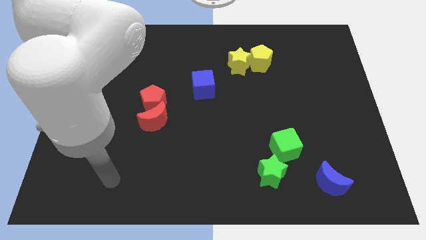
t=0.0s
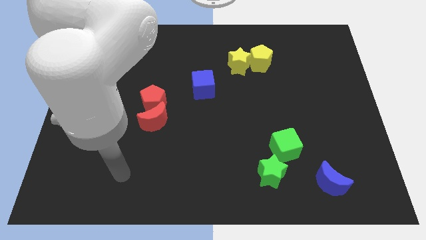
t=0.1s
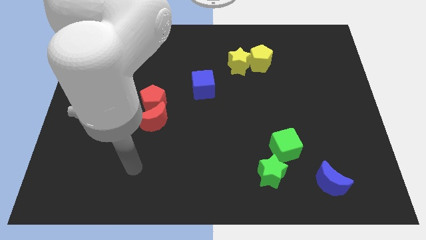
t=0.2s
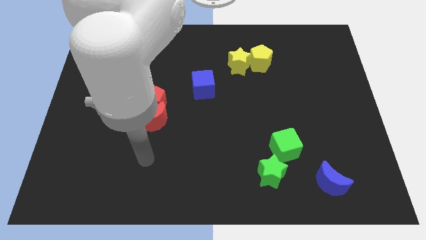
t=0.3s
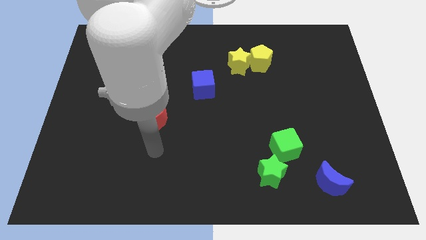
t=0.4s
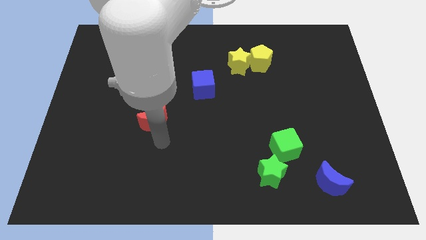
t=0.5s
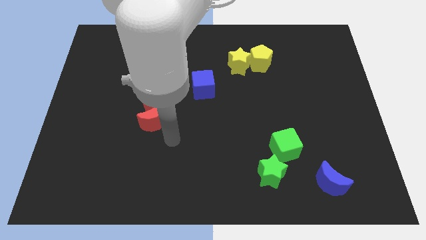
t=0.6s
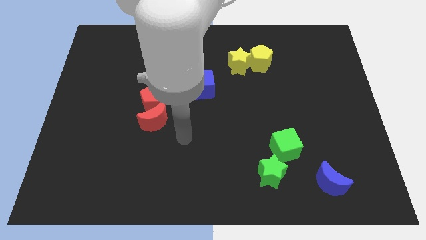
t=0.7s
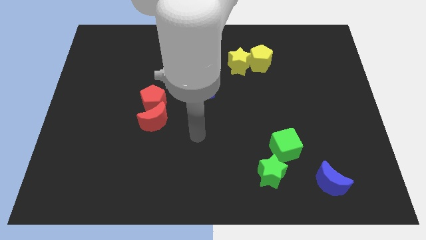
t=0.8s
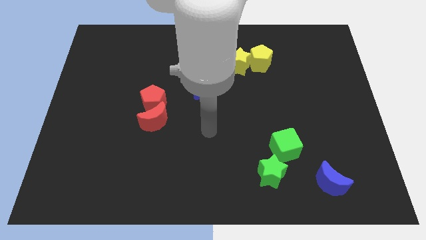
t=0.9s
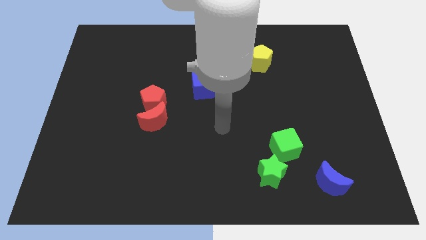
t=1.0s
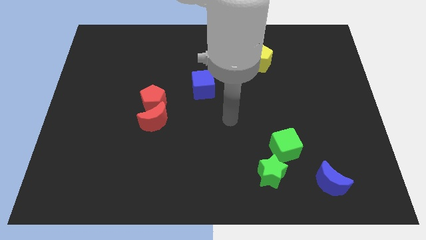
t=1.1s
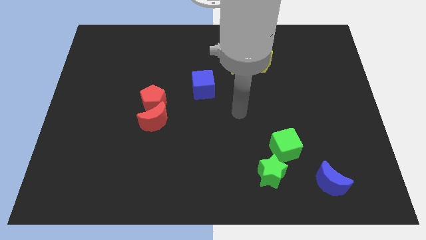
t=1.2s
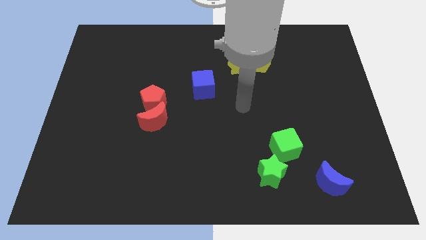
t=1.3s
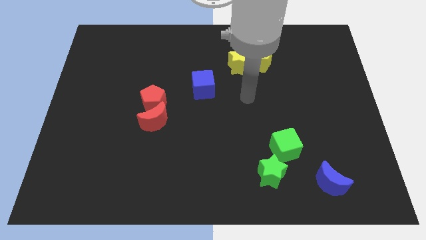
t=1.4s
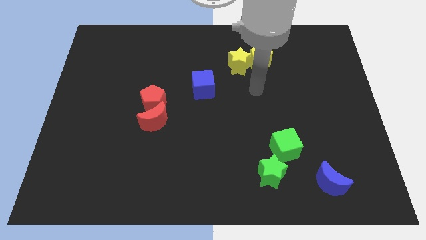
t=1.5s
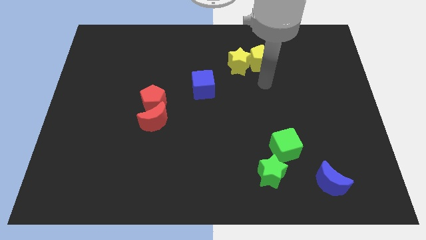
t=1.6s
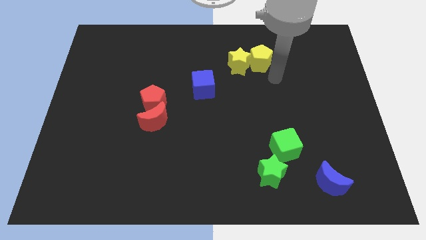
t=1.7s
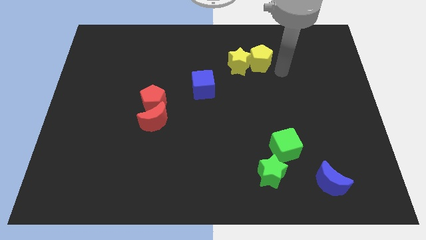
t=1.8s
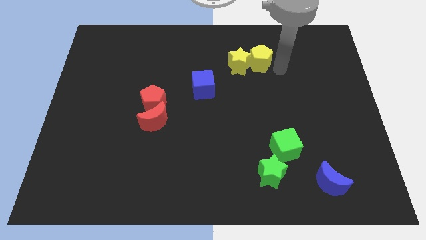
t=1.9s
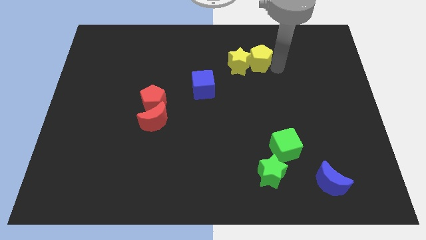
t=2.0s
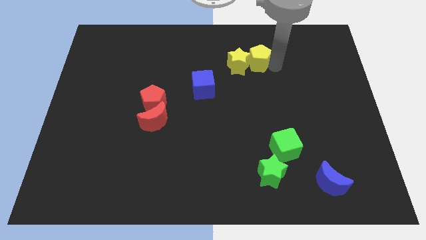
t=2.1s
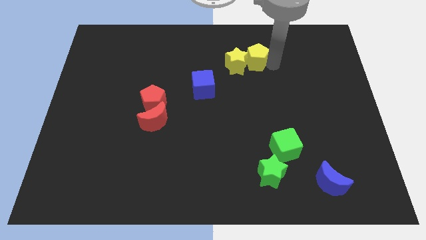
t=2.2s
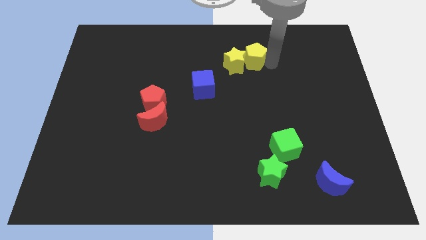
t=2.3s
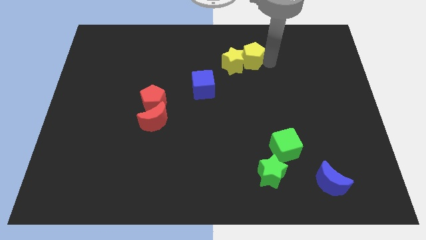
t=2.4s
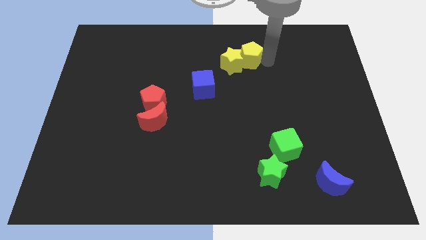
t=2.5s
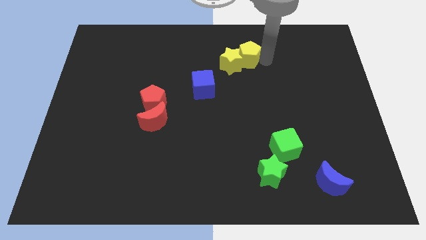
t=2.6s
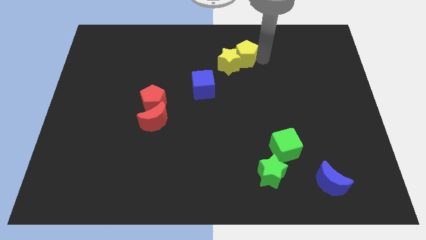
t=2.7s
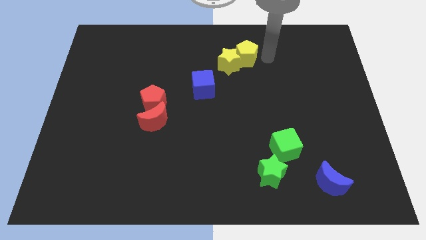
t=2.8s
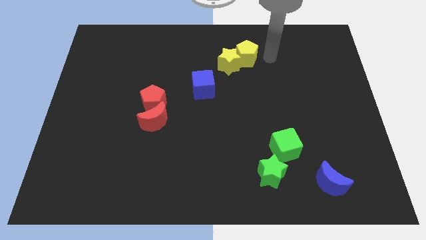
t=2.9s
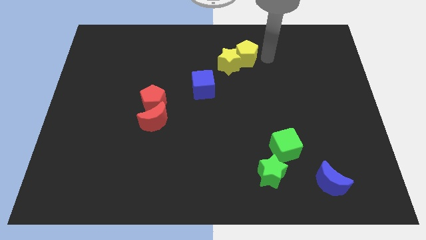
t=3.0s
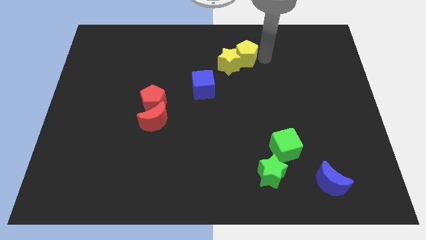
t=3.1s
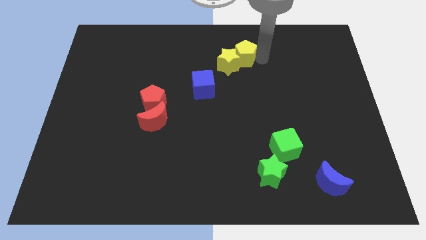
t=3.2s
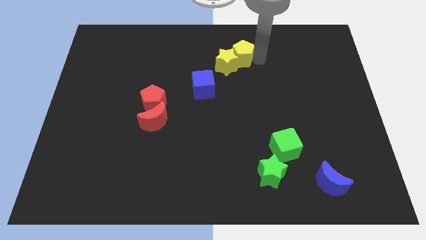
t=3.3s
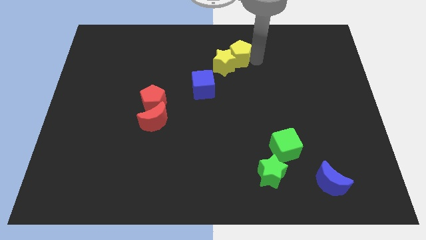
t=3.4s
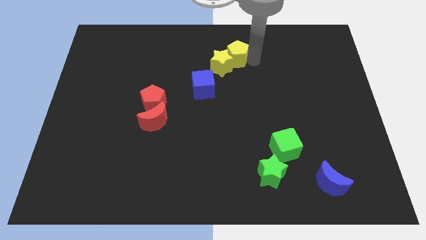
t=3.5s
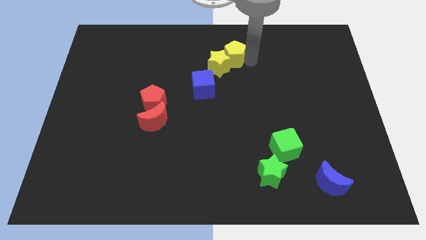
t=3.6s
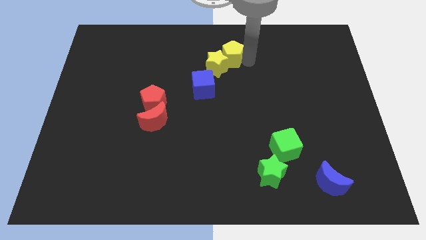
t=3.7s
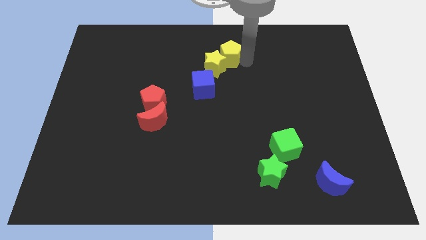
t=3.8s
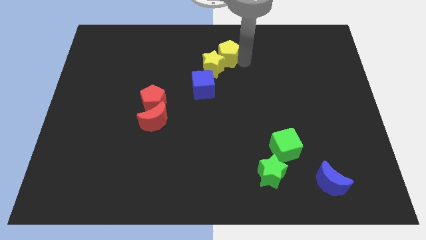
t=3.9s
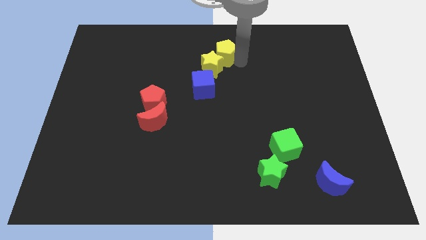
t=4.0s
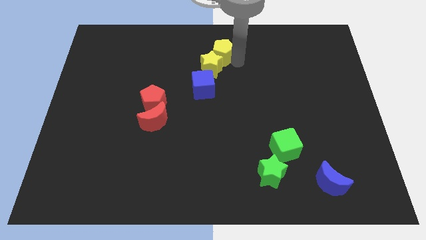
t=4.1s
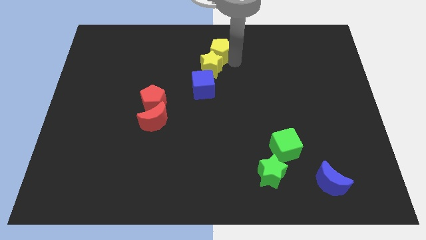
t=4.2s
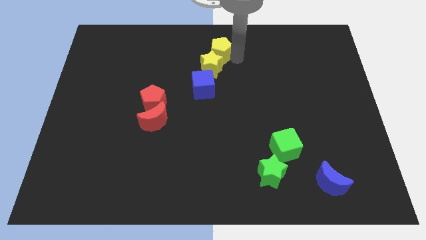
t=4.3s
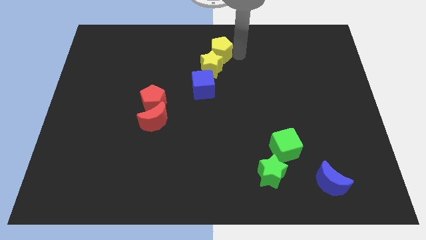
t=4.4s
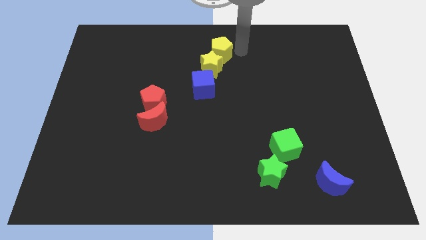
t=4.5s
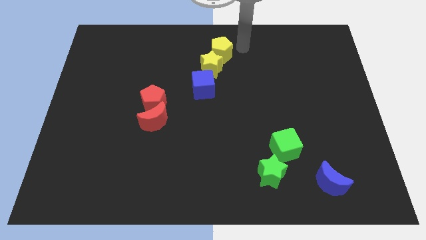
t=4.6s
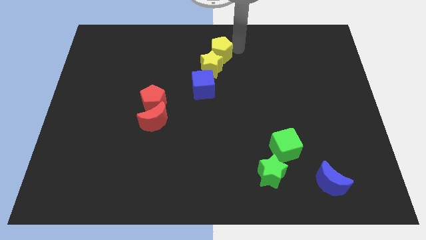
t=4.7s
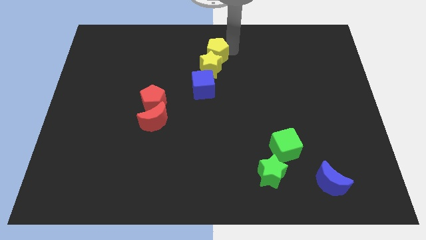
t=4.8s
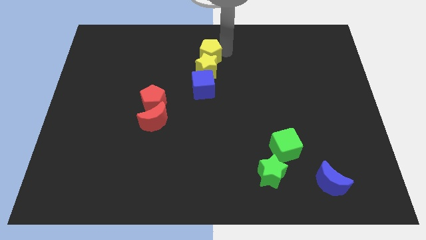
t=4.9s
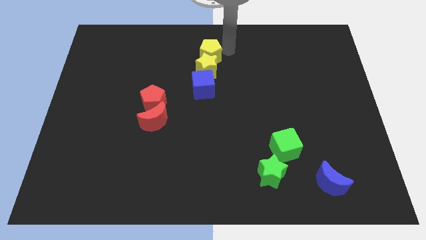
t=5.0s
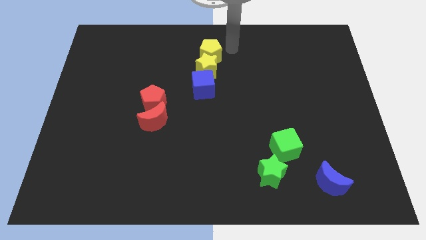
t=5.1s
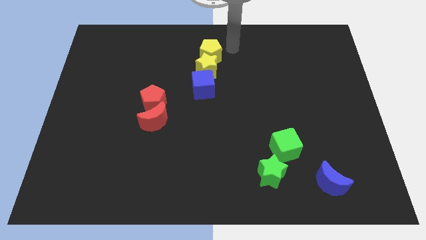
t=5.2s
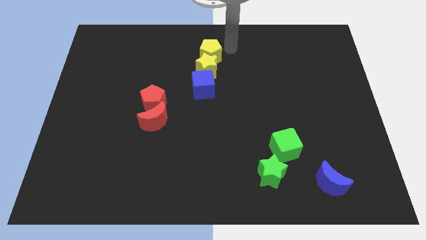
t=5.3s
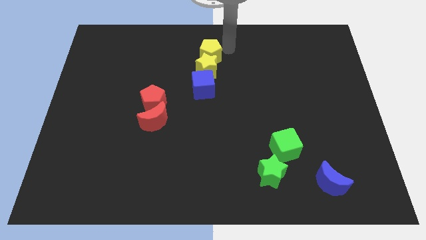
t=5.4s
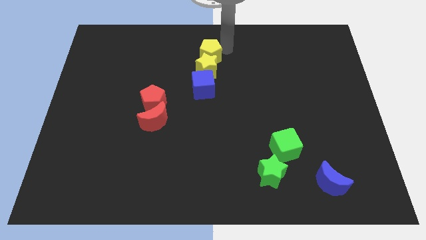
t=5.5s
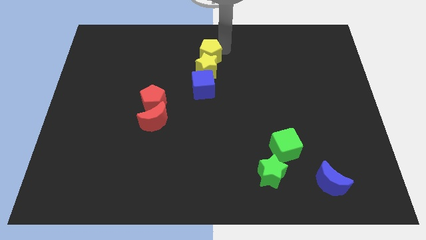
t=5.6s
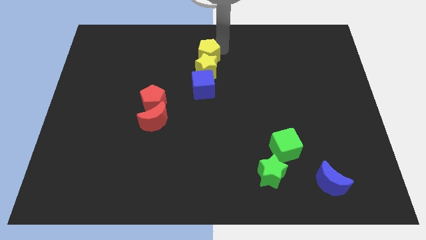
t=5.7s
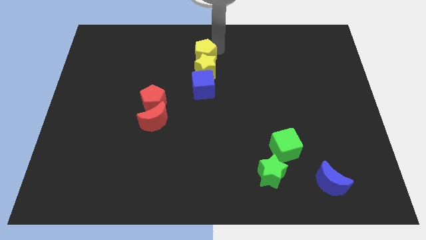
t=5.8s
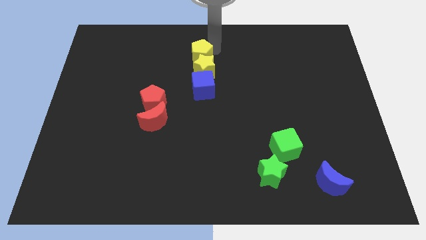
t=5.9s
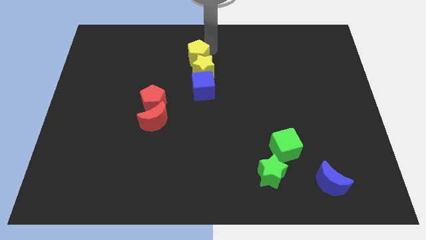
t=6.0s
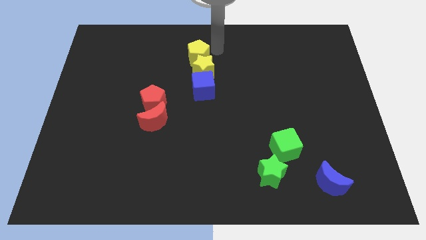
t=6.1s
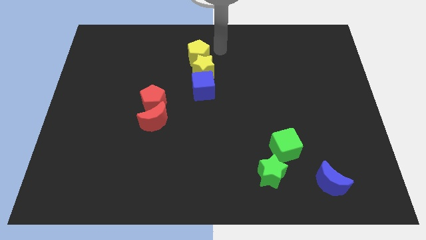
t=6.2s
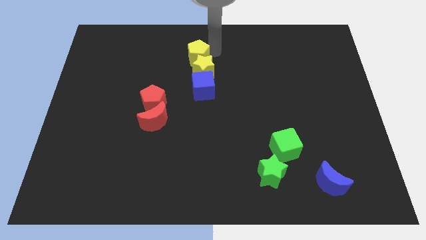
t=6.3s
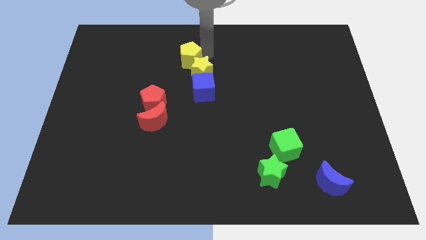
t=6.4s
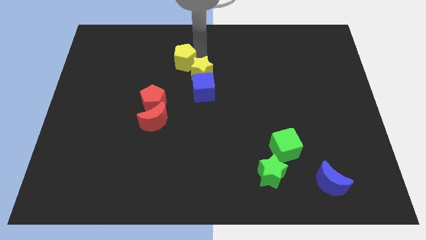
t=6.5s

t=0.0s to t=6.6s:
push the yellow pentagon to the left

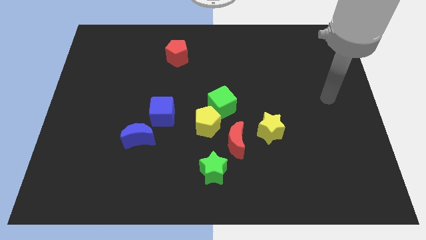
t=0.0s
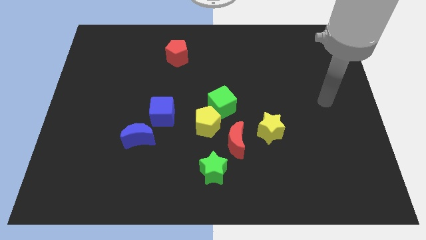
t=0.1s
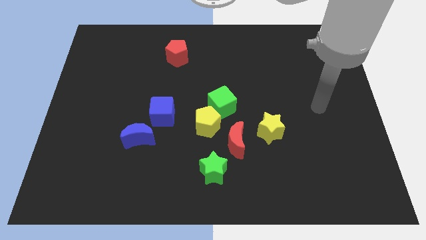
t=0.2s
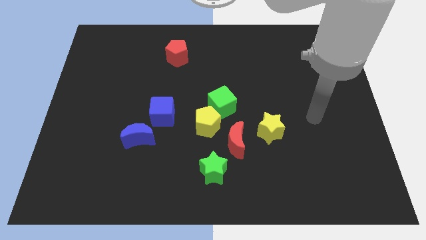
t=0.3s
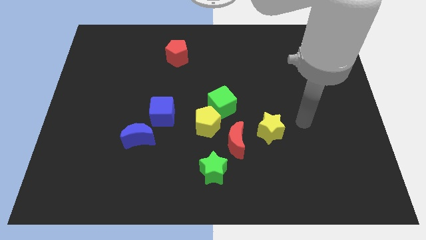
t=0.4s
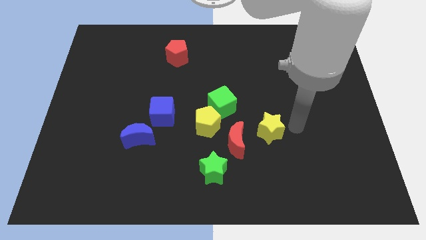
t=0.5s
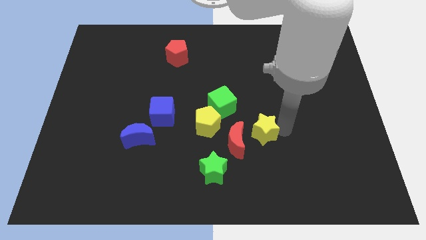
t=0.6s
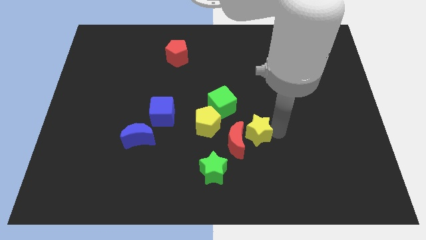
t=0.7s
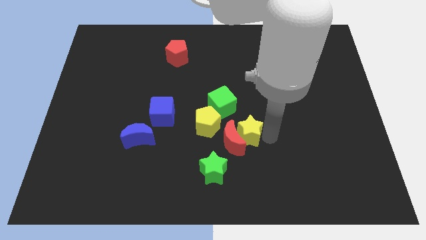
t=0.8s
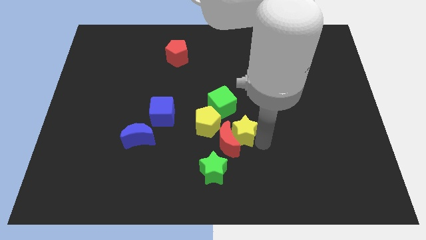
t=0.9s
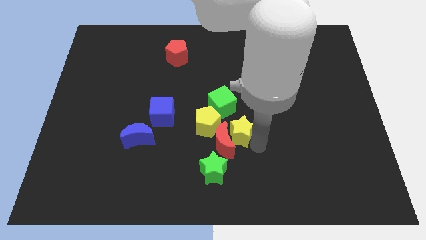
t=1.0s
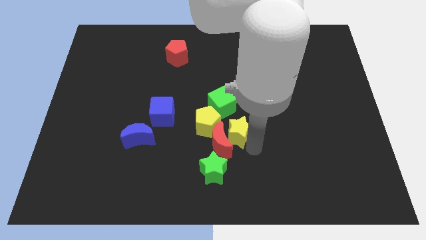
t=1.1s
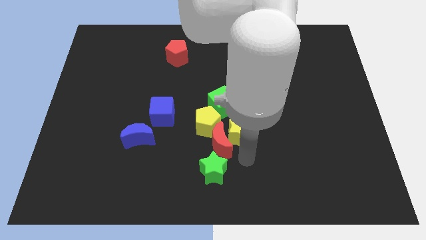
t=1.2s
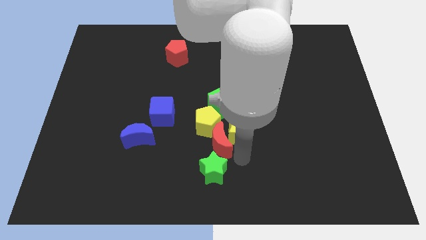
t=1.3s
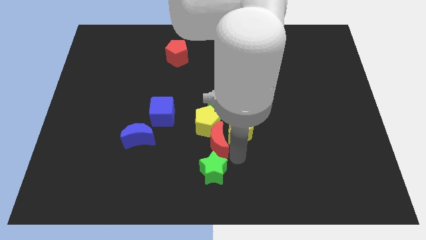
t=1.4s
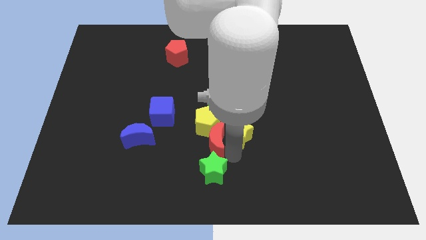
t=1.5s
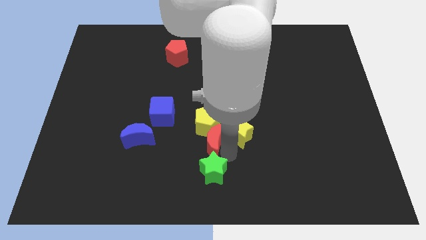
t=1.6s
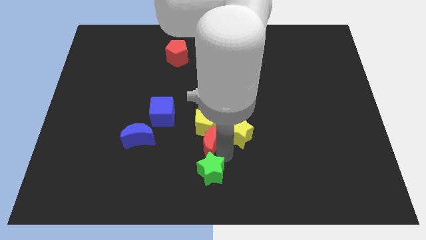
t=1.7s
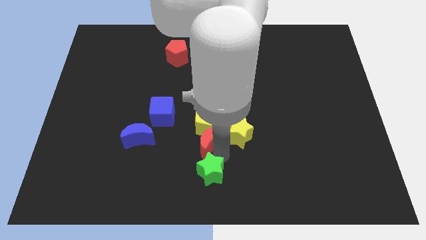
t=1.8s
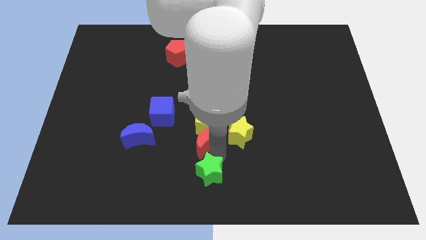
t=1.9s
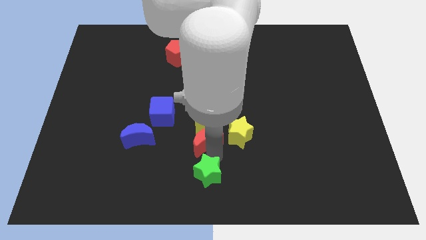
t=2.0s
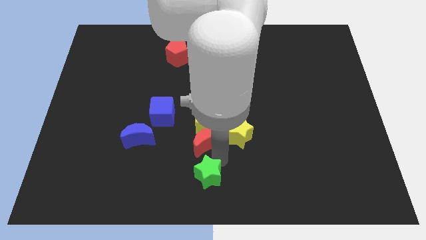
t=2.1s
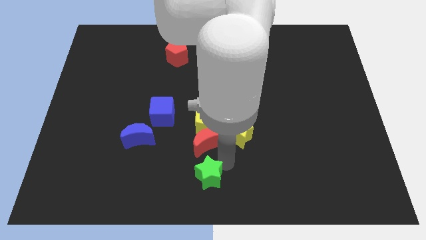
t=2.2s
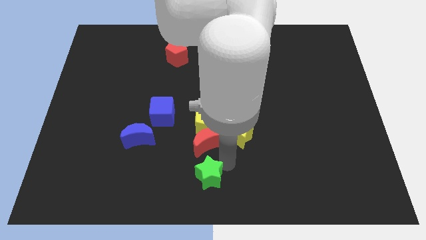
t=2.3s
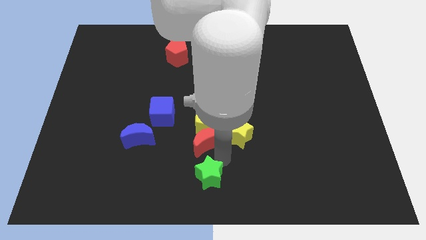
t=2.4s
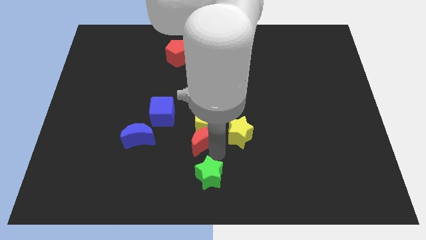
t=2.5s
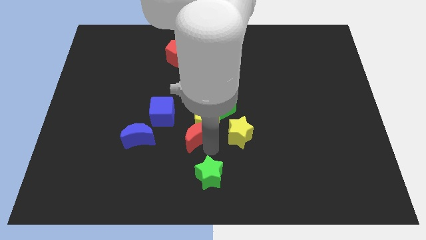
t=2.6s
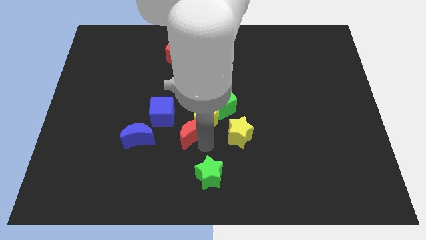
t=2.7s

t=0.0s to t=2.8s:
move the red moon upwards and to the left diagonally a little bit
